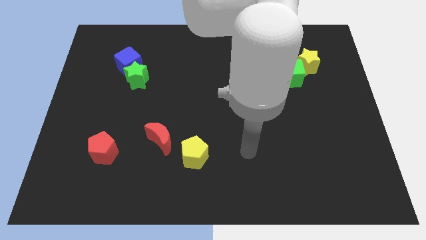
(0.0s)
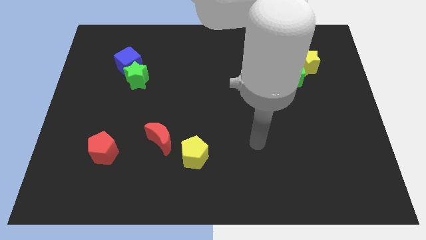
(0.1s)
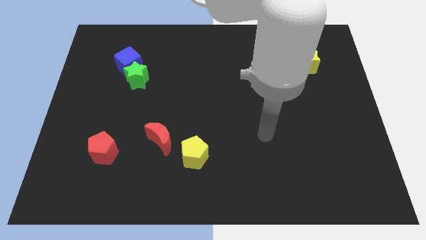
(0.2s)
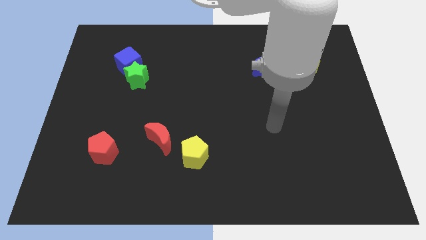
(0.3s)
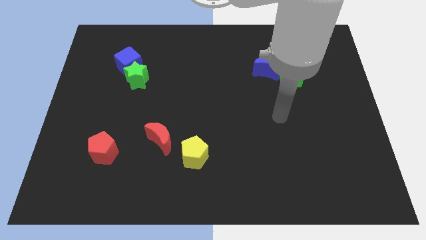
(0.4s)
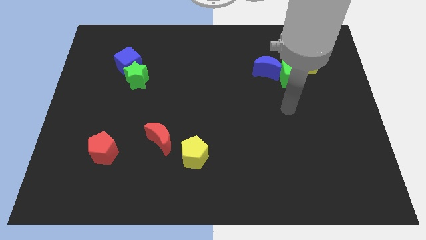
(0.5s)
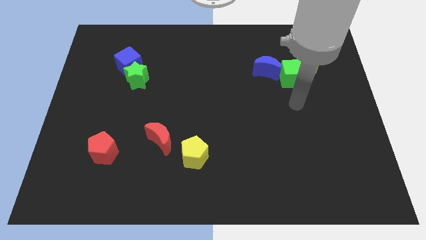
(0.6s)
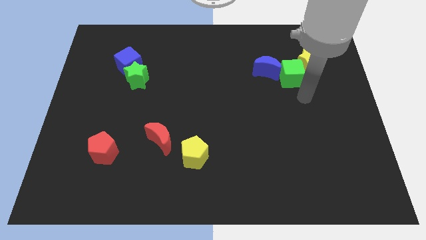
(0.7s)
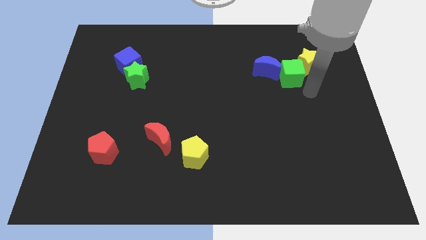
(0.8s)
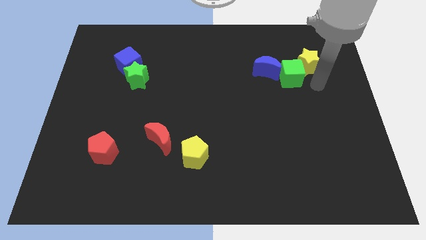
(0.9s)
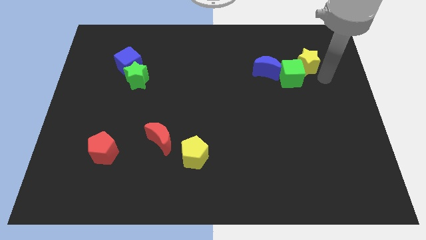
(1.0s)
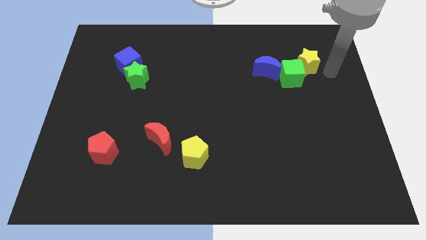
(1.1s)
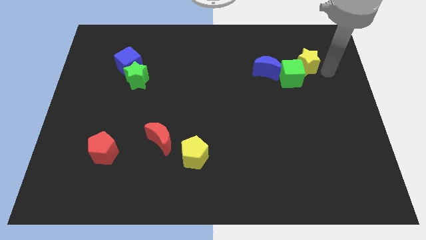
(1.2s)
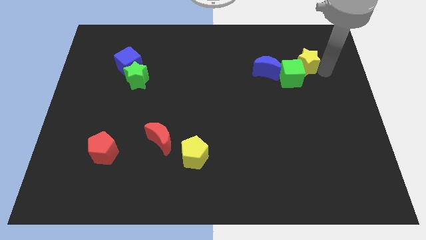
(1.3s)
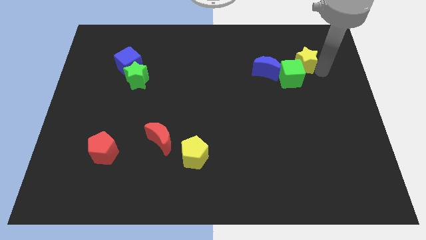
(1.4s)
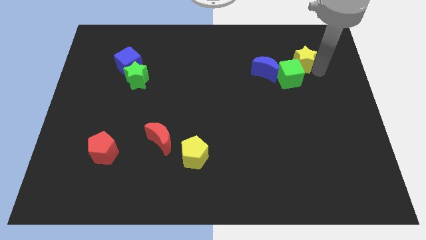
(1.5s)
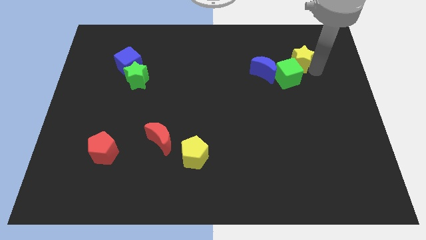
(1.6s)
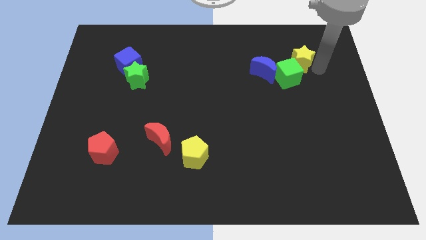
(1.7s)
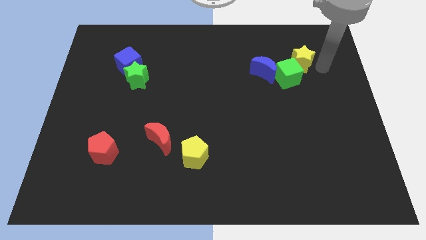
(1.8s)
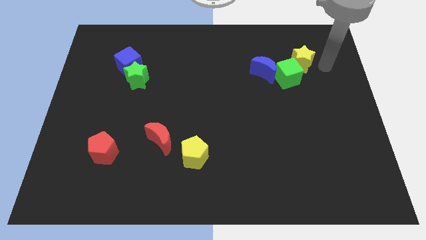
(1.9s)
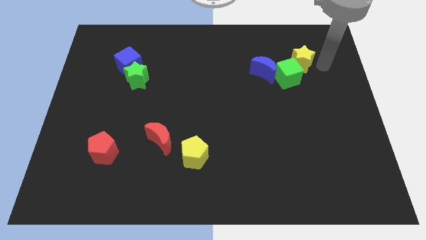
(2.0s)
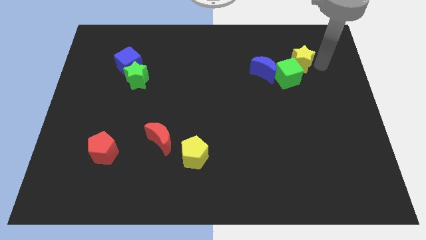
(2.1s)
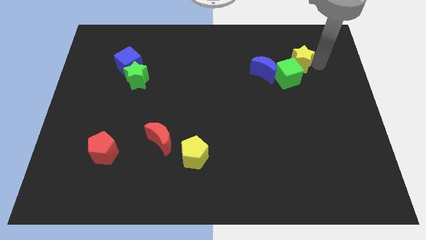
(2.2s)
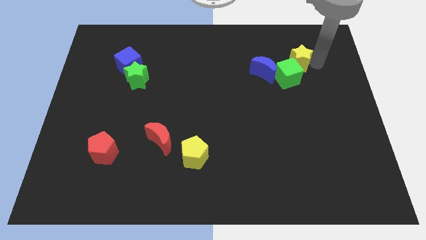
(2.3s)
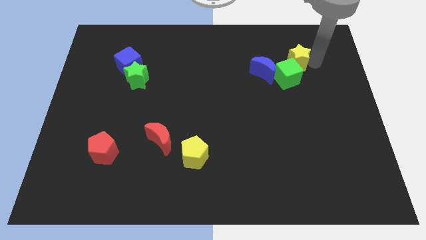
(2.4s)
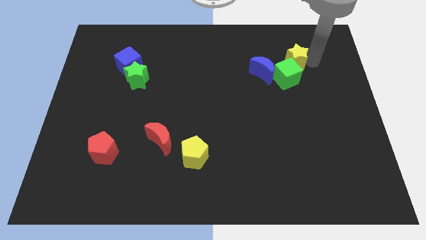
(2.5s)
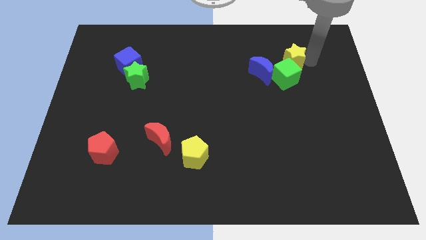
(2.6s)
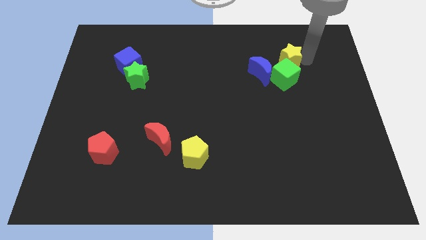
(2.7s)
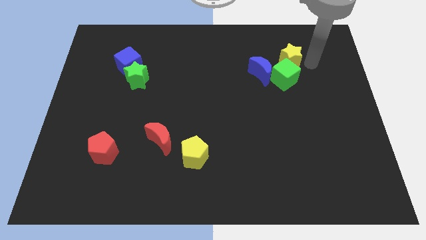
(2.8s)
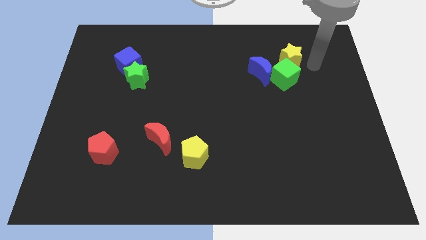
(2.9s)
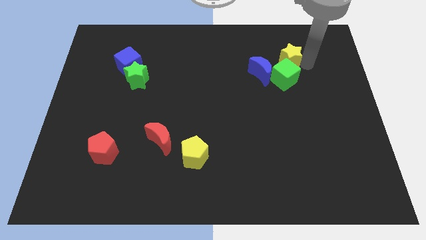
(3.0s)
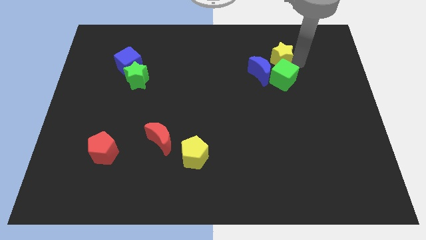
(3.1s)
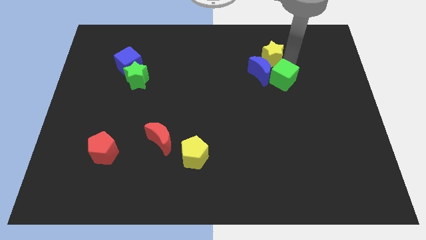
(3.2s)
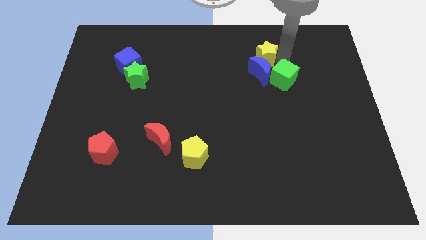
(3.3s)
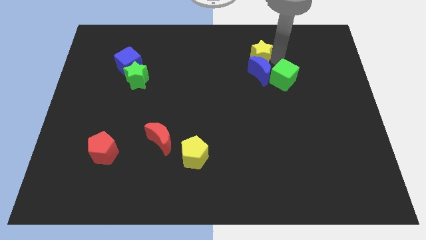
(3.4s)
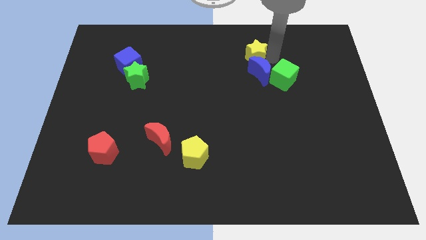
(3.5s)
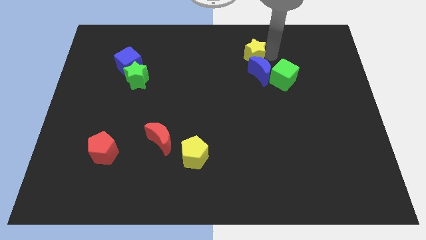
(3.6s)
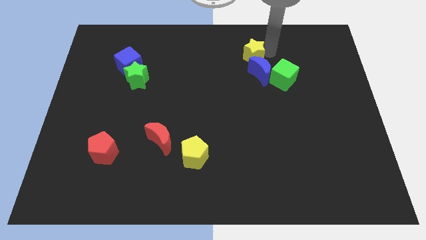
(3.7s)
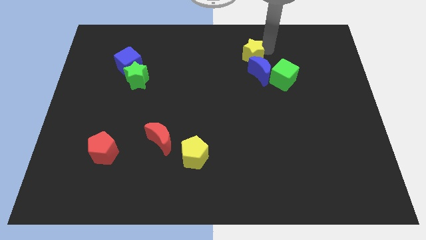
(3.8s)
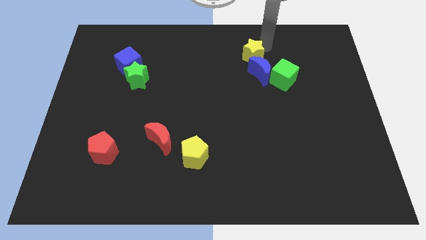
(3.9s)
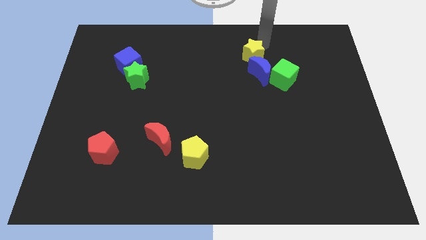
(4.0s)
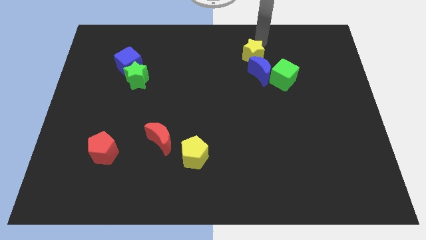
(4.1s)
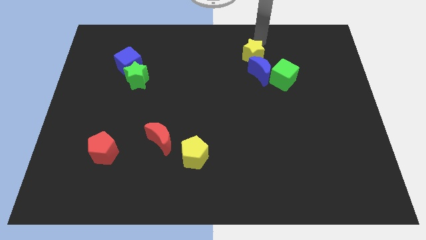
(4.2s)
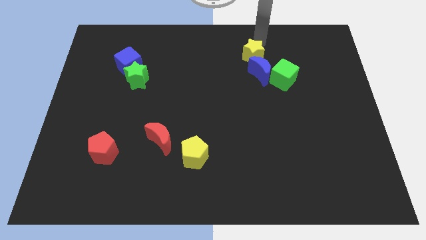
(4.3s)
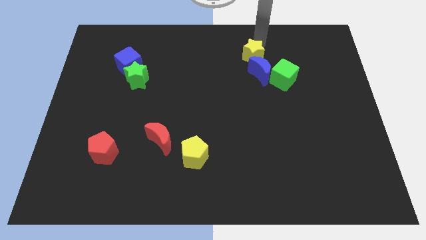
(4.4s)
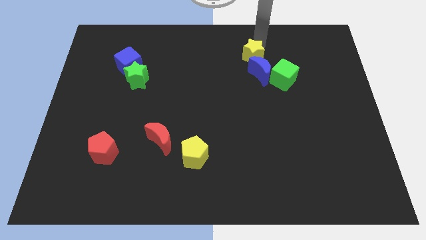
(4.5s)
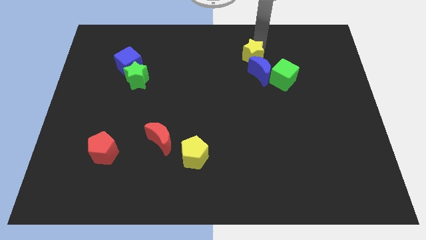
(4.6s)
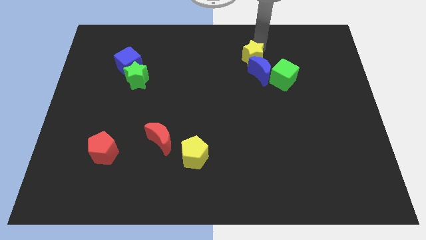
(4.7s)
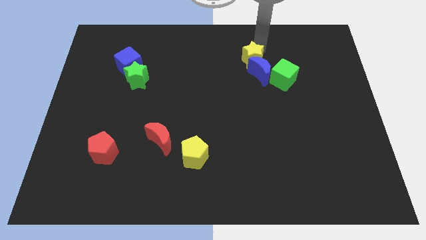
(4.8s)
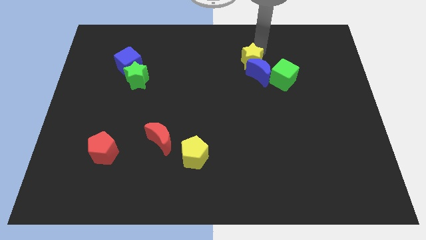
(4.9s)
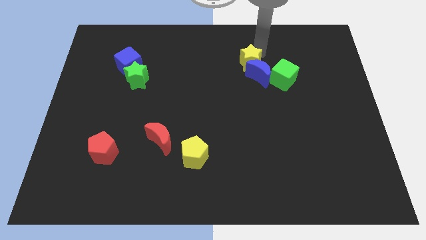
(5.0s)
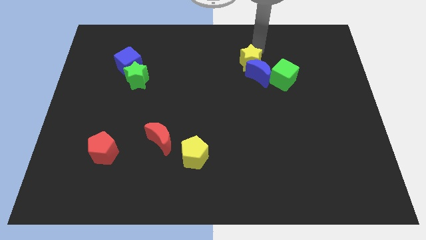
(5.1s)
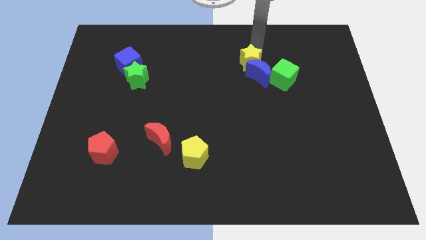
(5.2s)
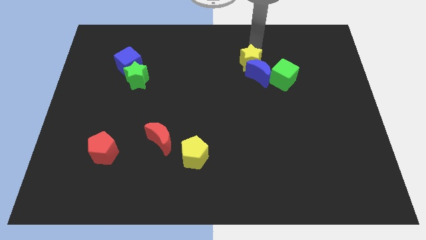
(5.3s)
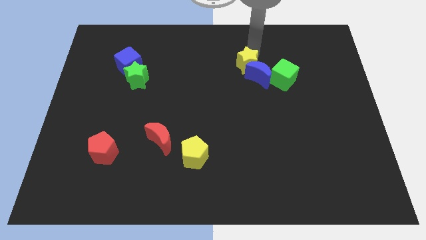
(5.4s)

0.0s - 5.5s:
slide the yellow star left of the green cube

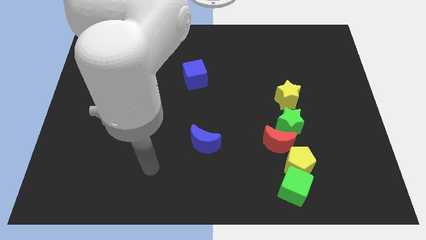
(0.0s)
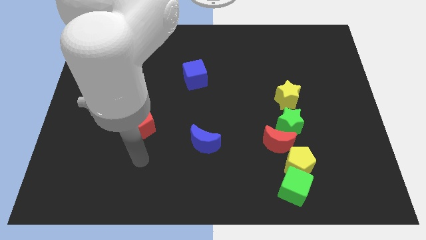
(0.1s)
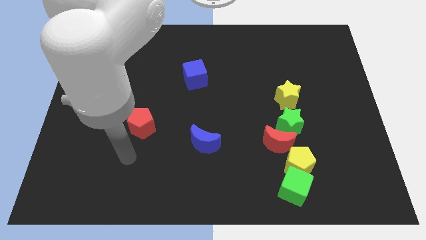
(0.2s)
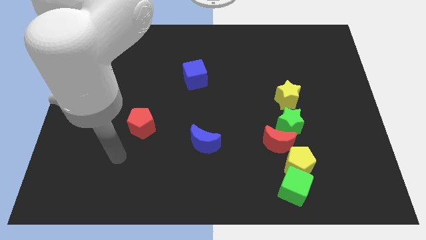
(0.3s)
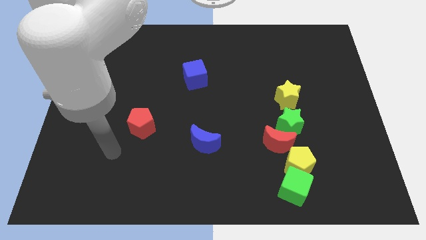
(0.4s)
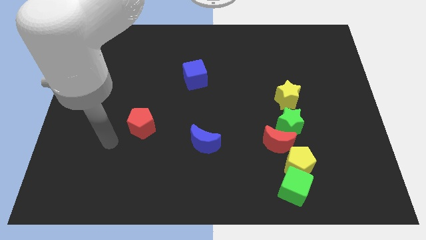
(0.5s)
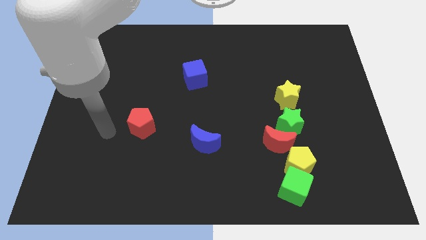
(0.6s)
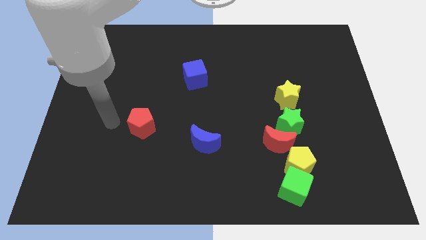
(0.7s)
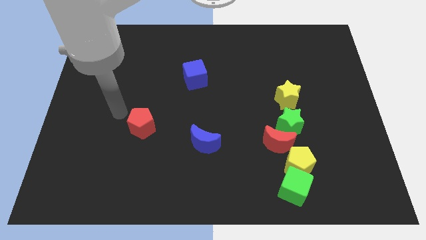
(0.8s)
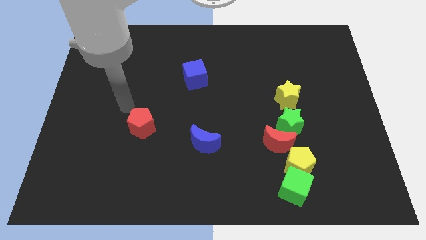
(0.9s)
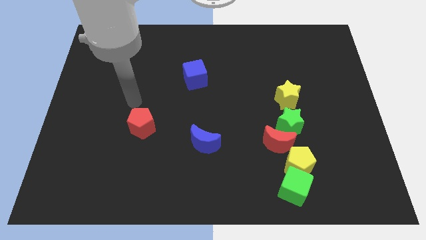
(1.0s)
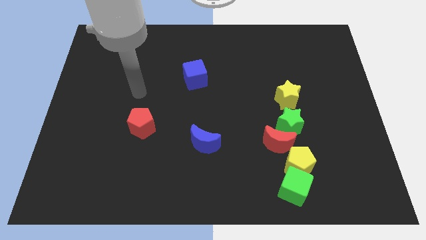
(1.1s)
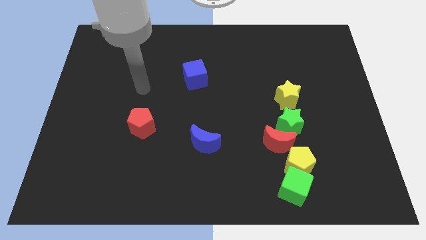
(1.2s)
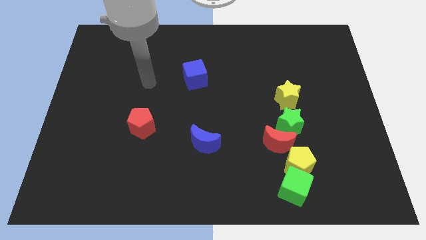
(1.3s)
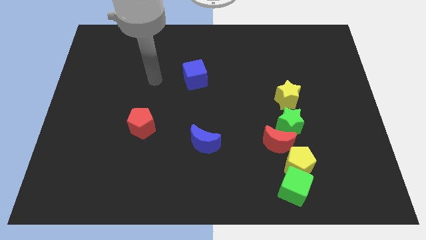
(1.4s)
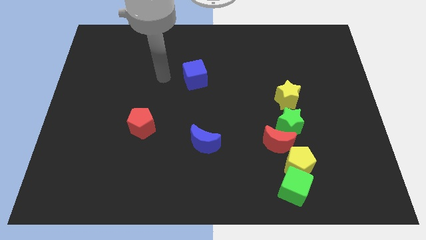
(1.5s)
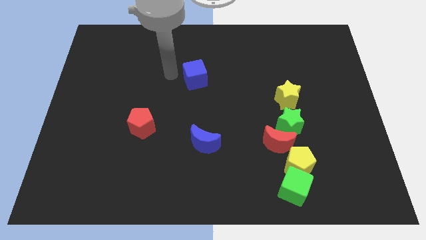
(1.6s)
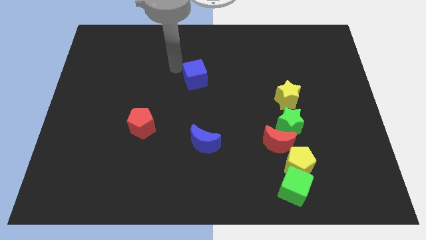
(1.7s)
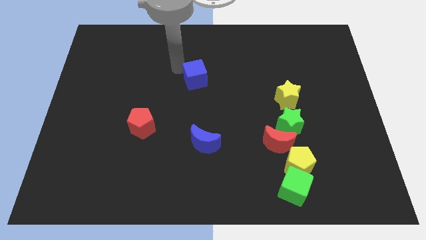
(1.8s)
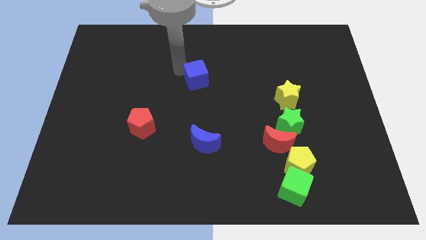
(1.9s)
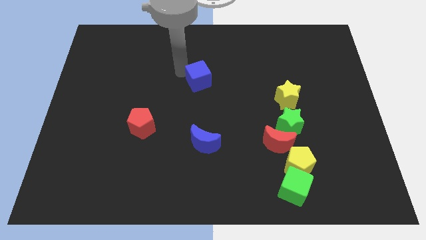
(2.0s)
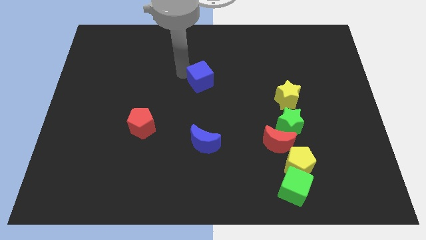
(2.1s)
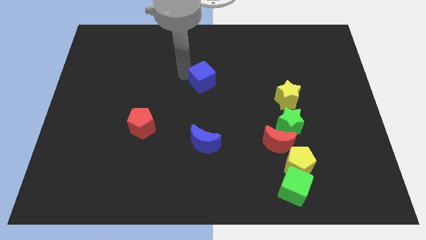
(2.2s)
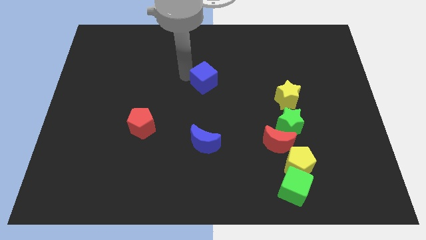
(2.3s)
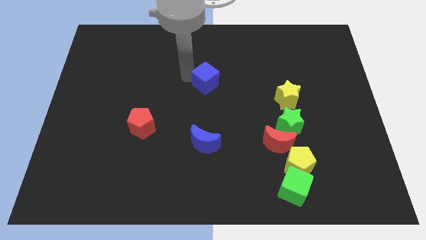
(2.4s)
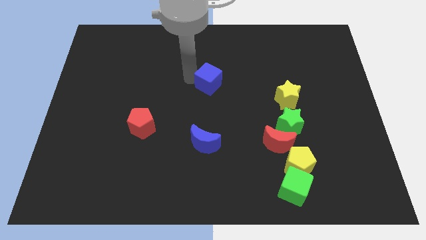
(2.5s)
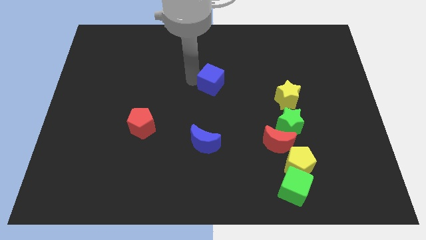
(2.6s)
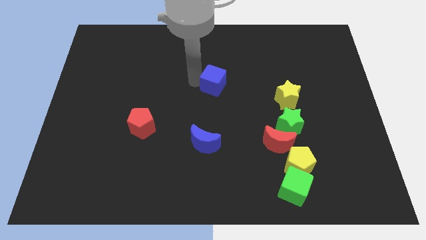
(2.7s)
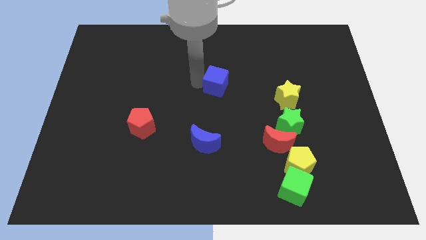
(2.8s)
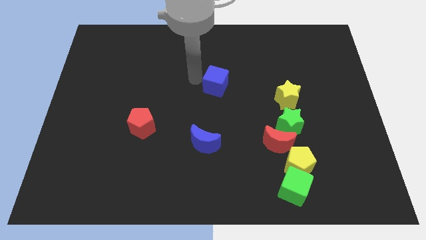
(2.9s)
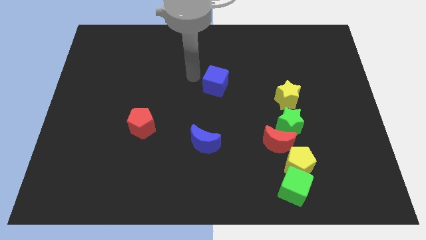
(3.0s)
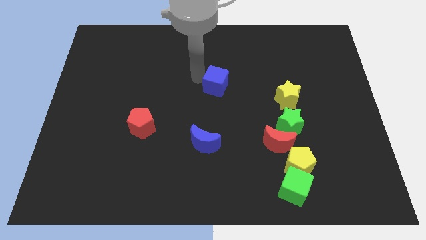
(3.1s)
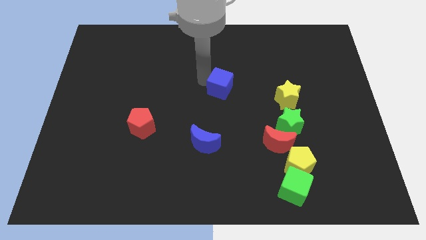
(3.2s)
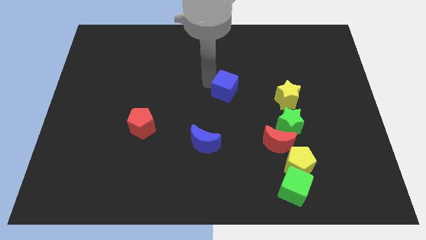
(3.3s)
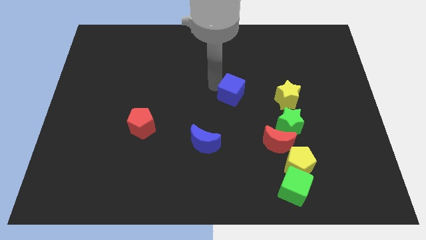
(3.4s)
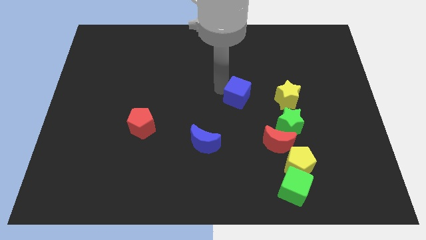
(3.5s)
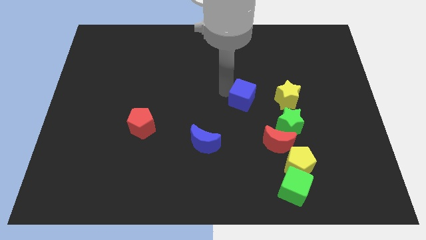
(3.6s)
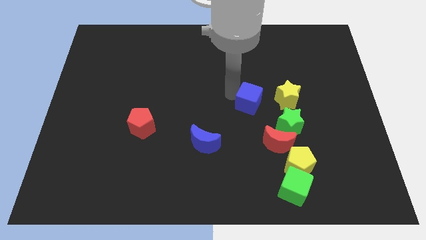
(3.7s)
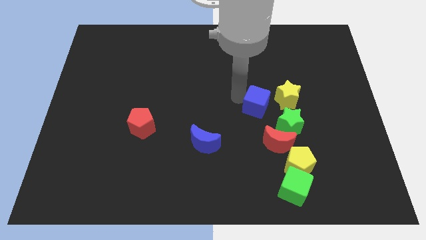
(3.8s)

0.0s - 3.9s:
move the blue cube to the top of the red moon
